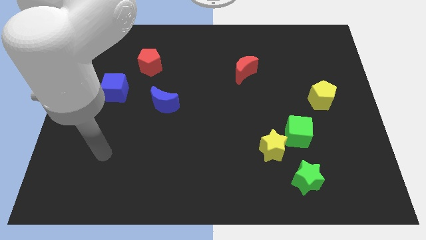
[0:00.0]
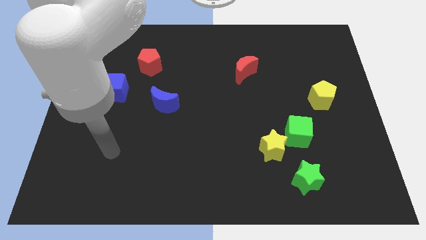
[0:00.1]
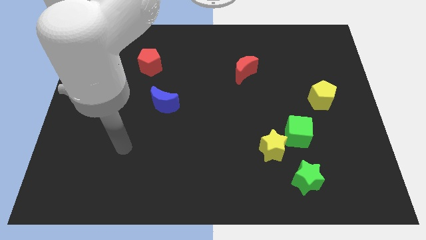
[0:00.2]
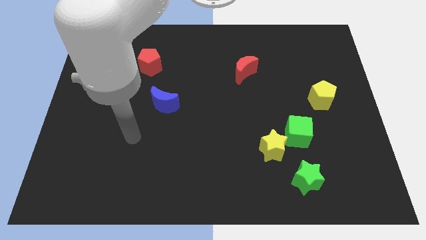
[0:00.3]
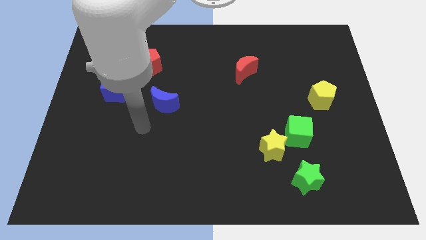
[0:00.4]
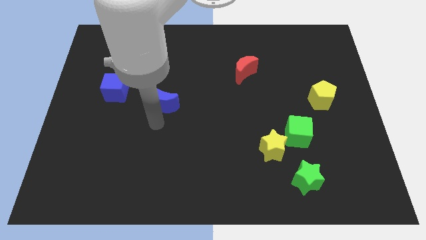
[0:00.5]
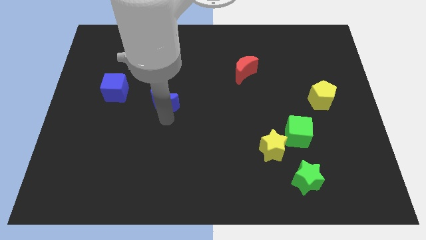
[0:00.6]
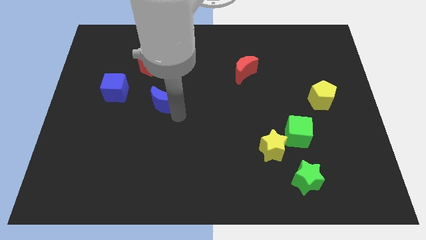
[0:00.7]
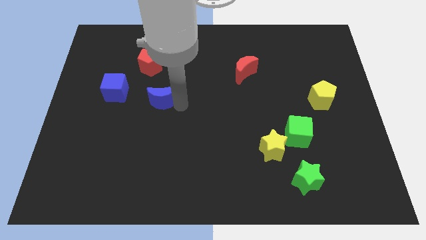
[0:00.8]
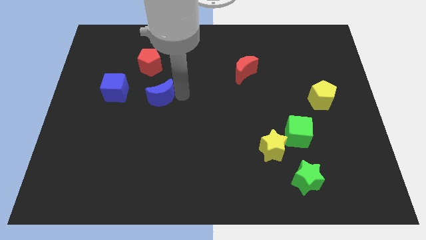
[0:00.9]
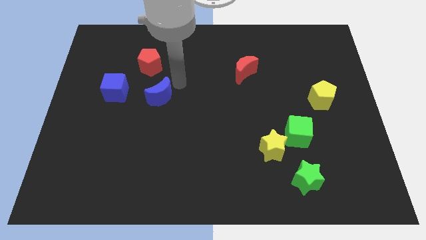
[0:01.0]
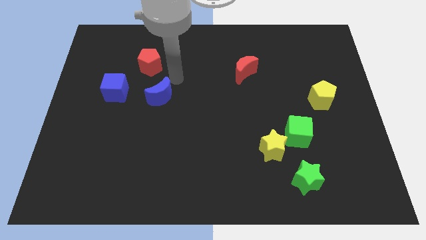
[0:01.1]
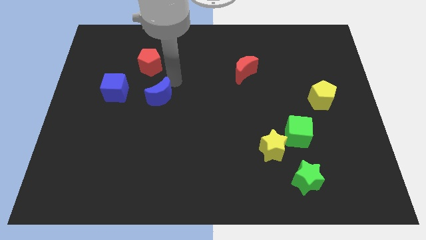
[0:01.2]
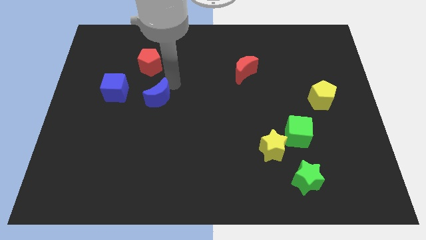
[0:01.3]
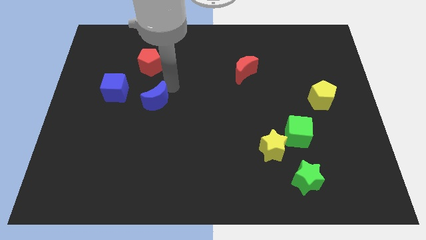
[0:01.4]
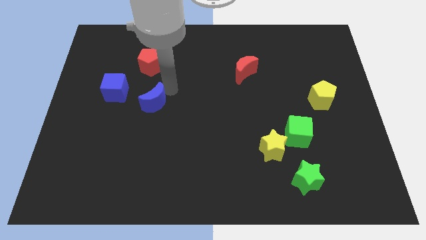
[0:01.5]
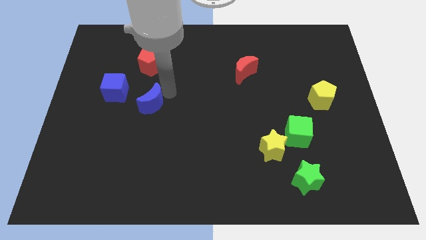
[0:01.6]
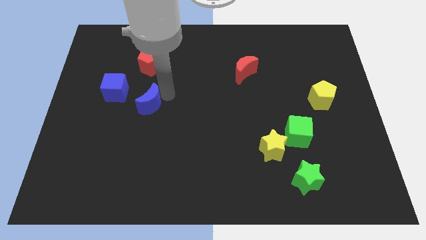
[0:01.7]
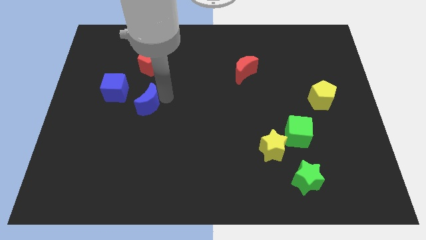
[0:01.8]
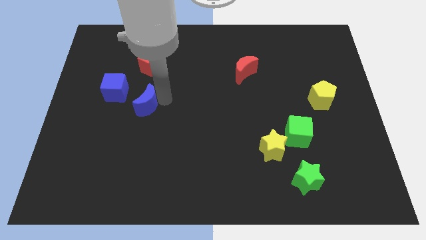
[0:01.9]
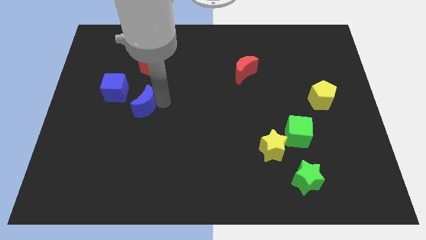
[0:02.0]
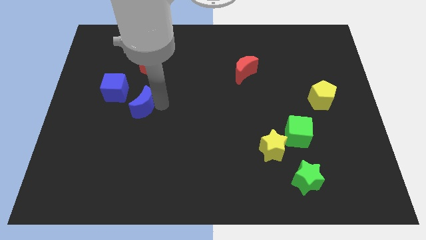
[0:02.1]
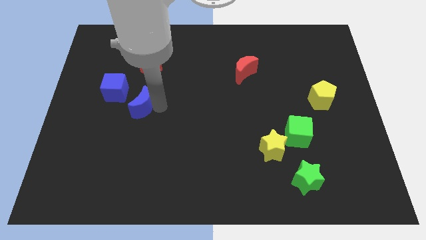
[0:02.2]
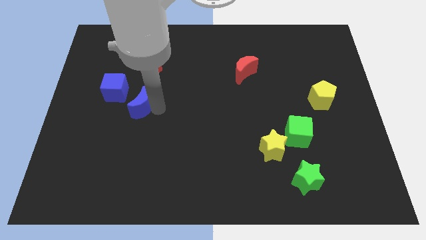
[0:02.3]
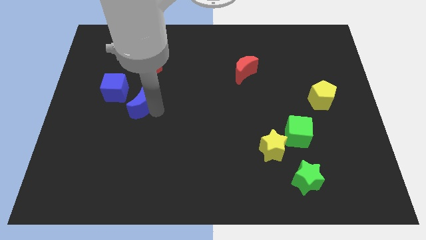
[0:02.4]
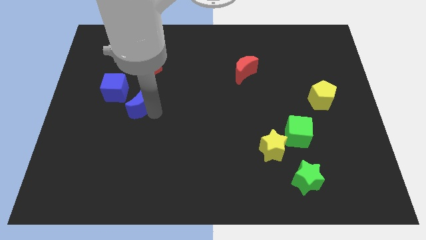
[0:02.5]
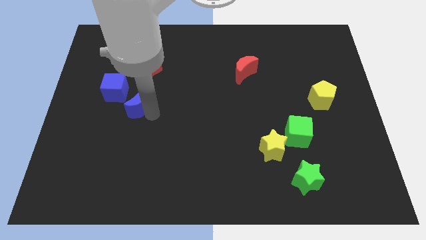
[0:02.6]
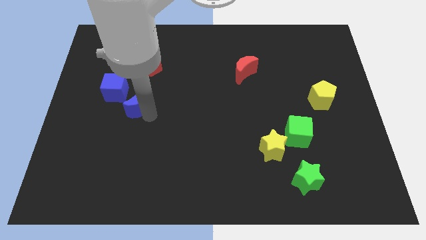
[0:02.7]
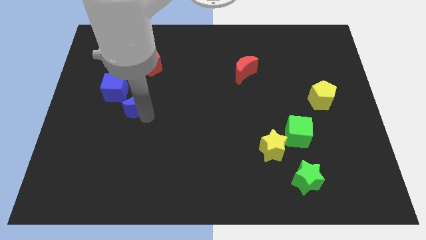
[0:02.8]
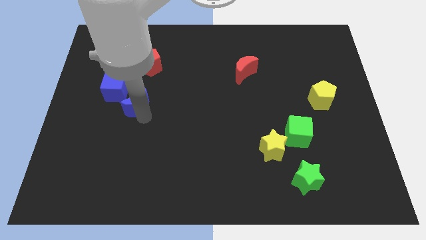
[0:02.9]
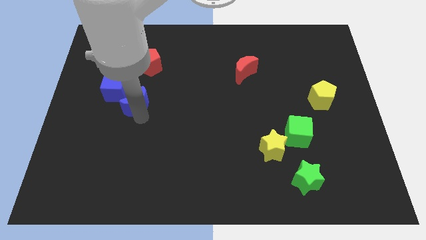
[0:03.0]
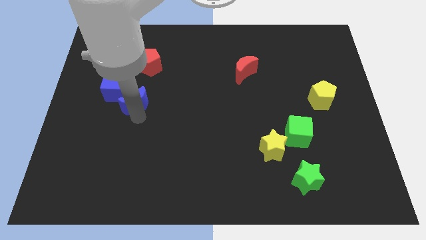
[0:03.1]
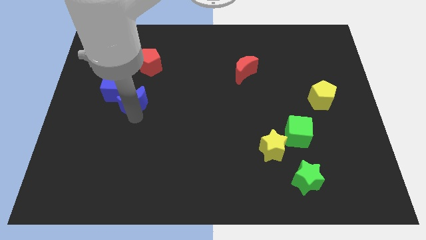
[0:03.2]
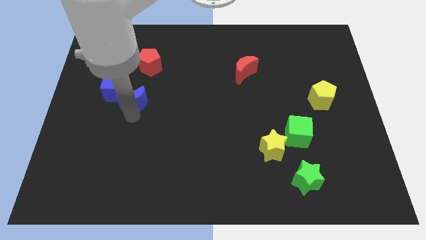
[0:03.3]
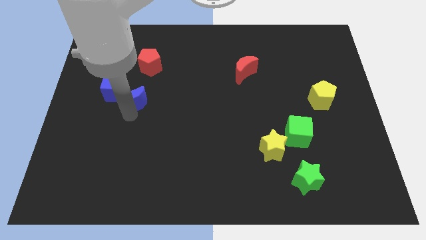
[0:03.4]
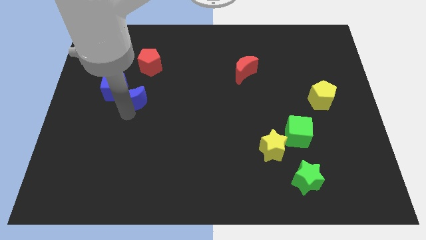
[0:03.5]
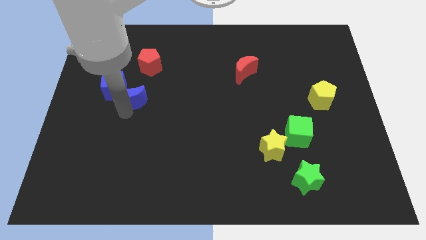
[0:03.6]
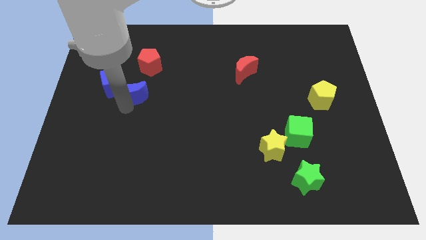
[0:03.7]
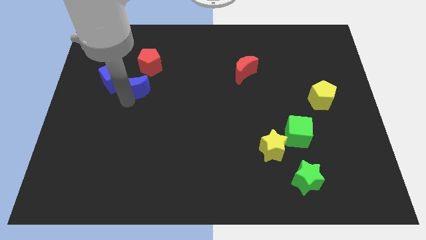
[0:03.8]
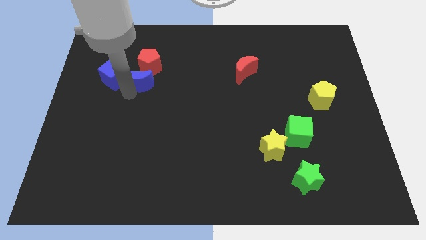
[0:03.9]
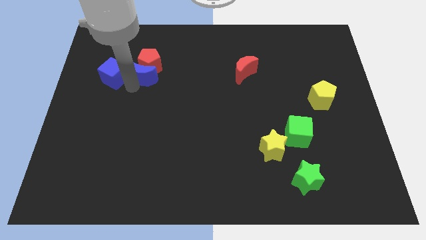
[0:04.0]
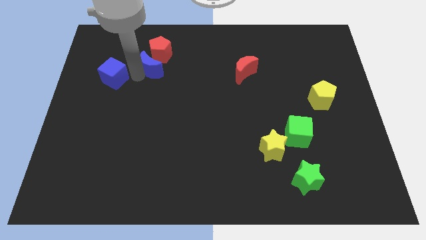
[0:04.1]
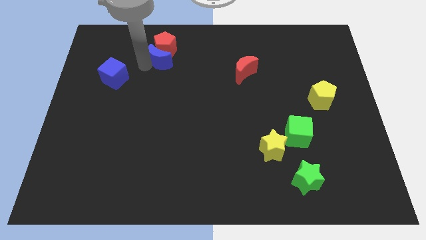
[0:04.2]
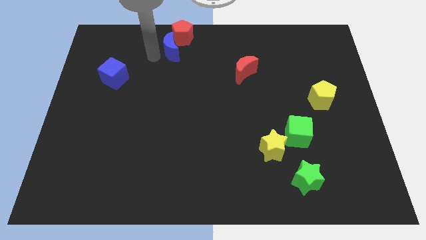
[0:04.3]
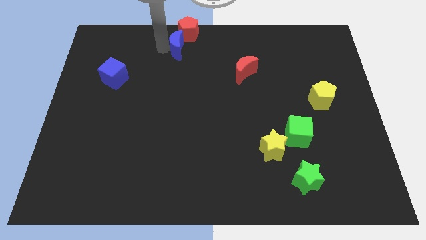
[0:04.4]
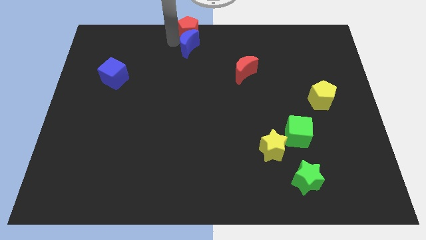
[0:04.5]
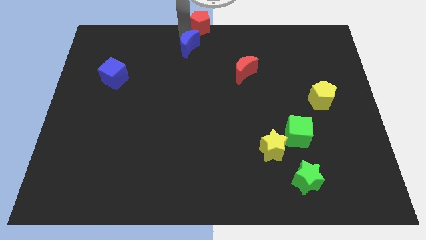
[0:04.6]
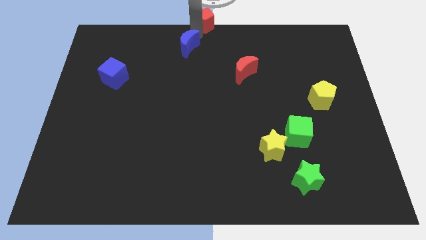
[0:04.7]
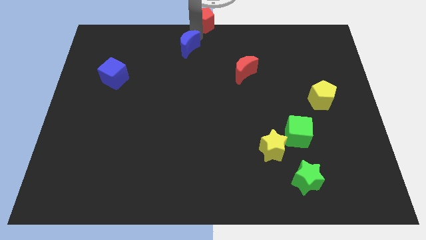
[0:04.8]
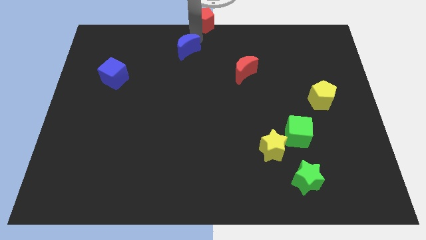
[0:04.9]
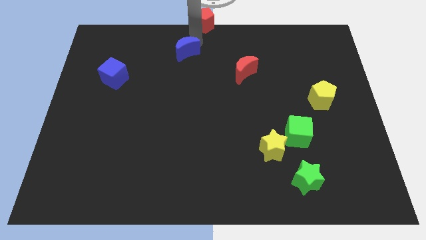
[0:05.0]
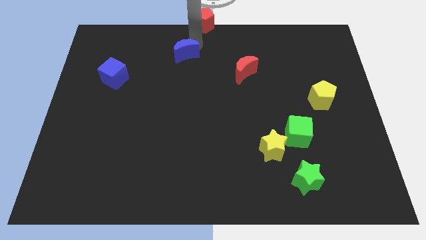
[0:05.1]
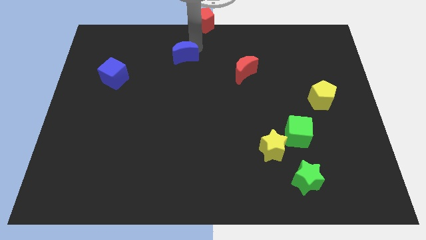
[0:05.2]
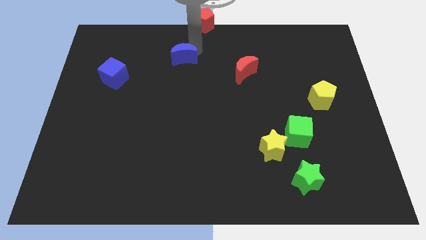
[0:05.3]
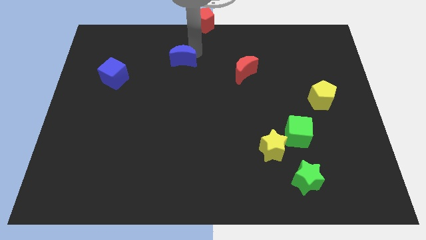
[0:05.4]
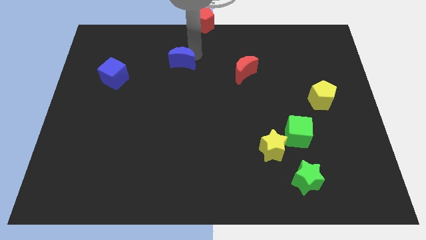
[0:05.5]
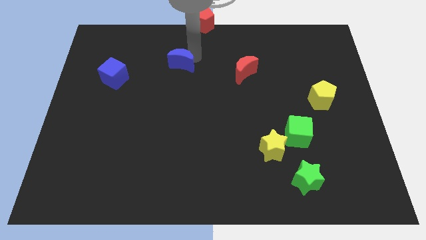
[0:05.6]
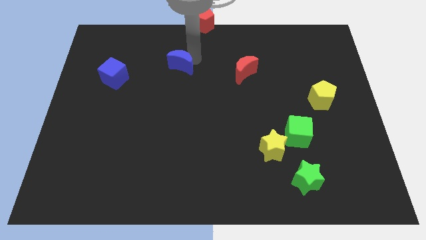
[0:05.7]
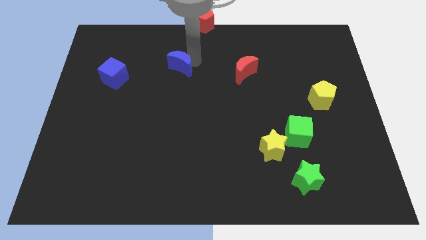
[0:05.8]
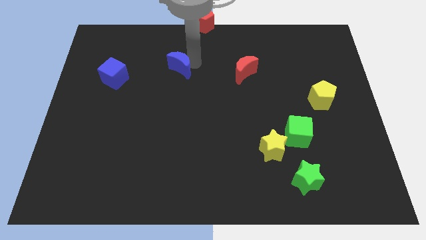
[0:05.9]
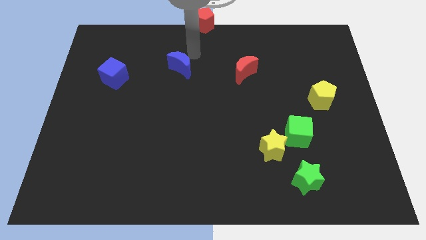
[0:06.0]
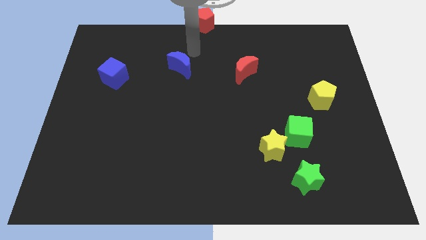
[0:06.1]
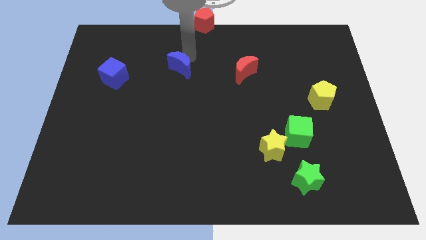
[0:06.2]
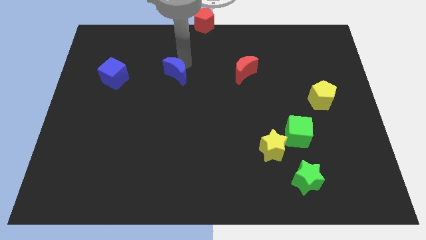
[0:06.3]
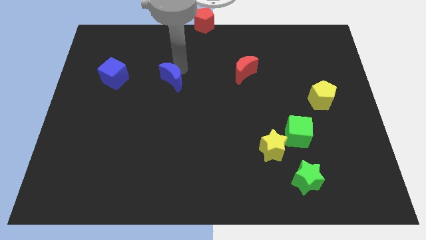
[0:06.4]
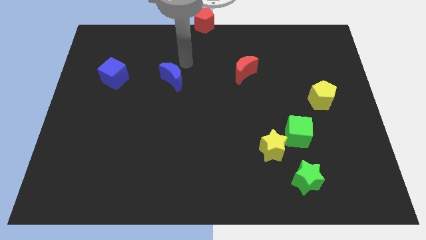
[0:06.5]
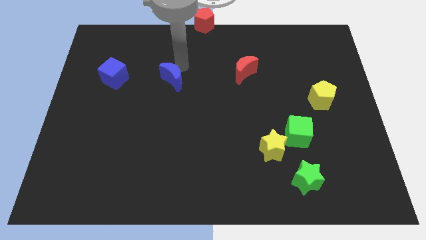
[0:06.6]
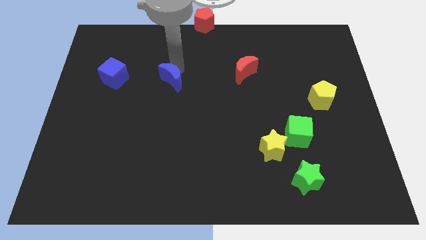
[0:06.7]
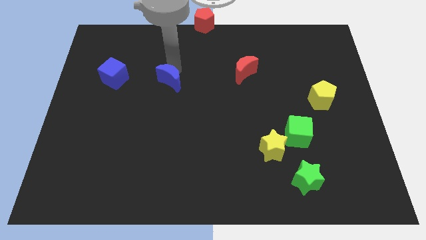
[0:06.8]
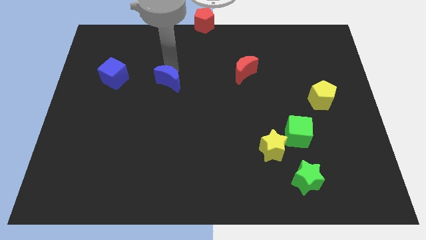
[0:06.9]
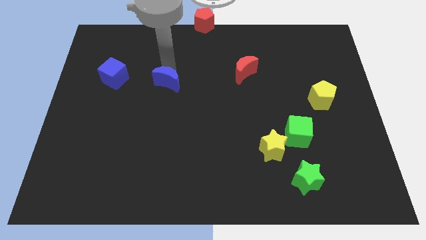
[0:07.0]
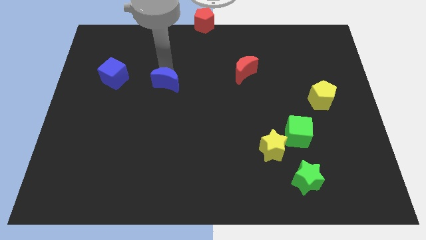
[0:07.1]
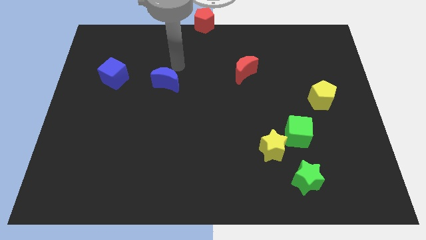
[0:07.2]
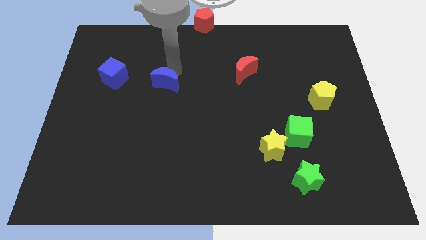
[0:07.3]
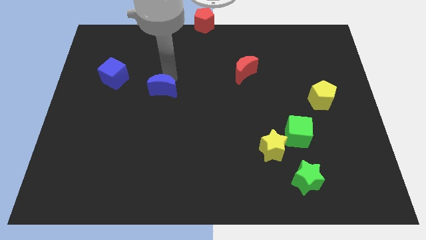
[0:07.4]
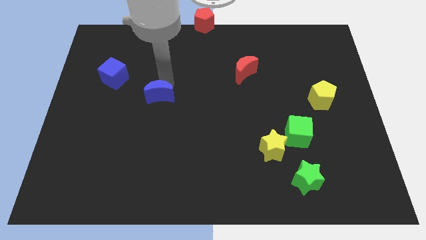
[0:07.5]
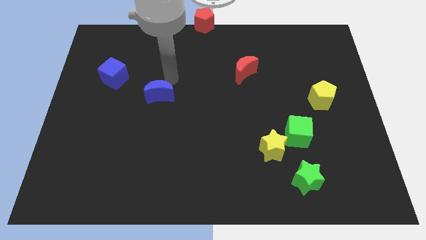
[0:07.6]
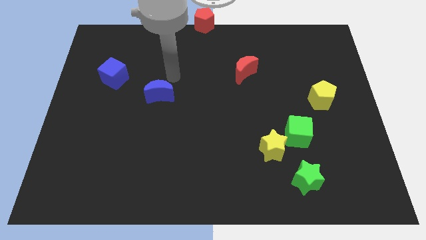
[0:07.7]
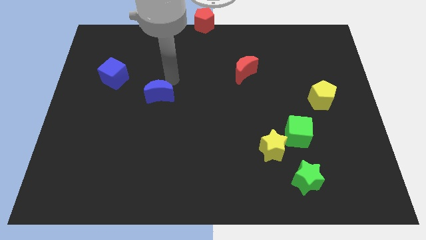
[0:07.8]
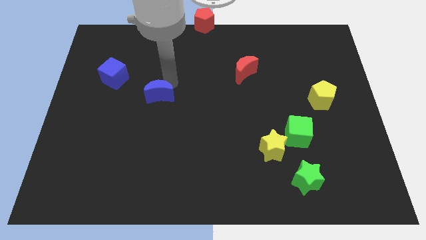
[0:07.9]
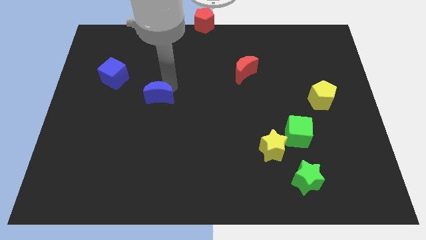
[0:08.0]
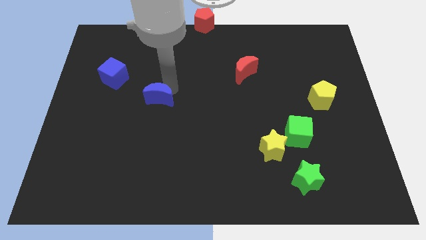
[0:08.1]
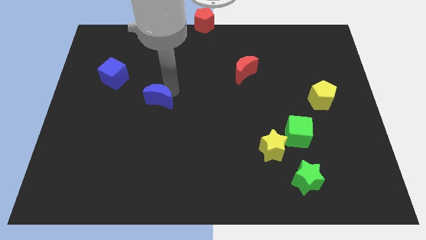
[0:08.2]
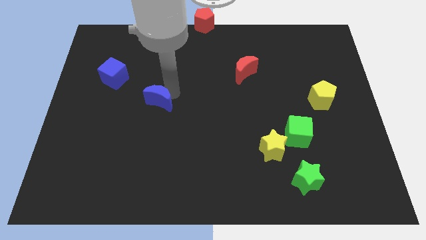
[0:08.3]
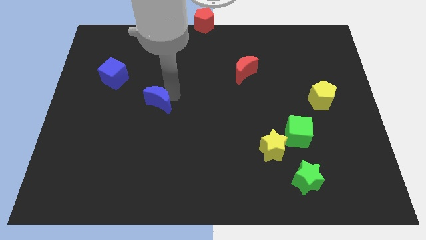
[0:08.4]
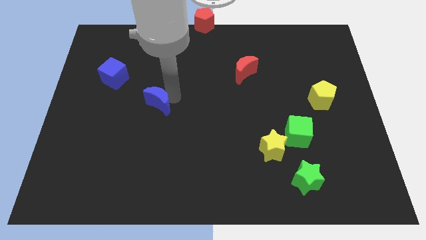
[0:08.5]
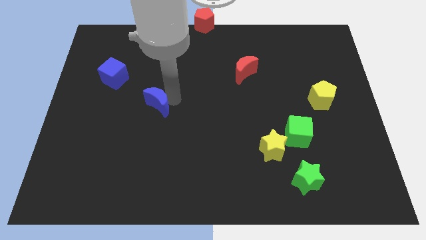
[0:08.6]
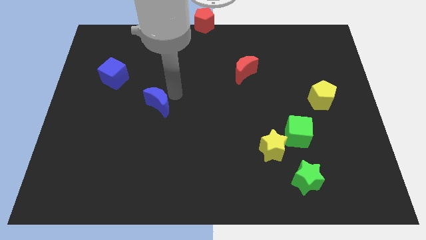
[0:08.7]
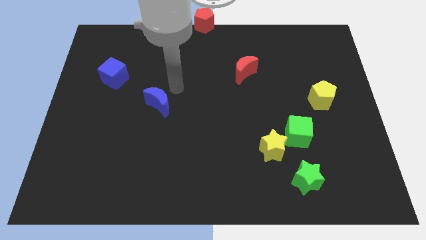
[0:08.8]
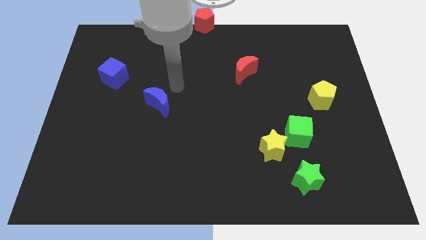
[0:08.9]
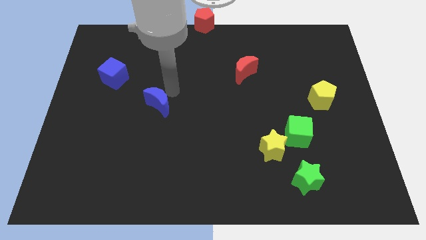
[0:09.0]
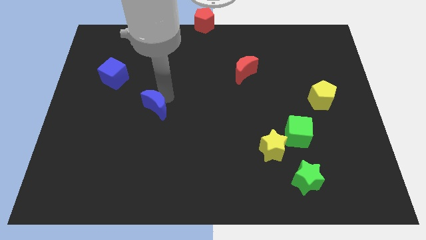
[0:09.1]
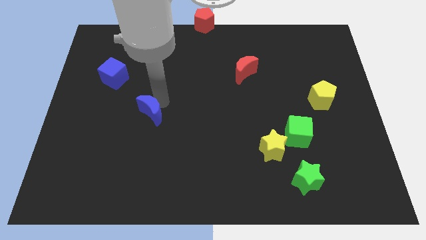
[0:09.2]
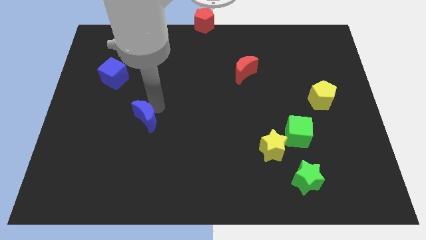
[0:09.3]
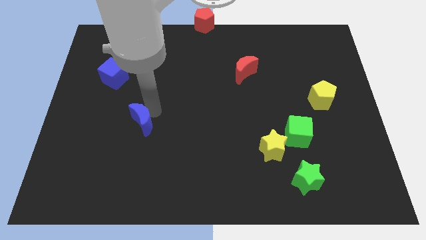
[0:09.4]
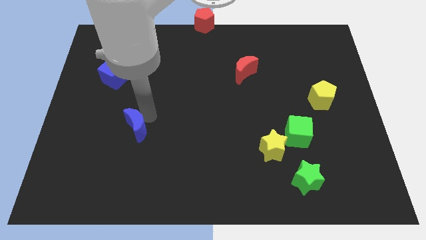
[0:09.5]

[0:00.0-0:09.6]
push the blue moon a little down and to the left diagonally
